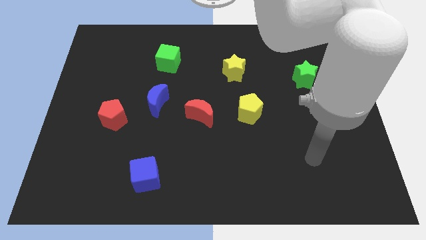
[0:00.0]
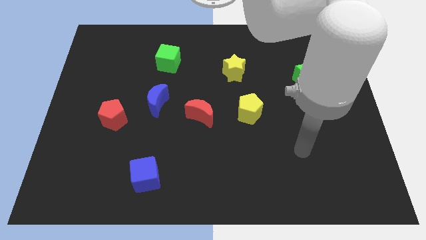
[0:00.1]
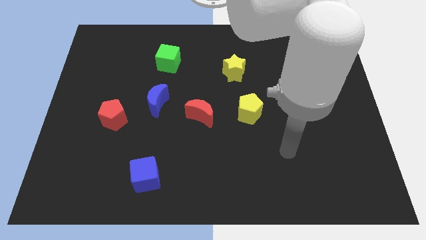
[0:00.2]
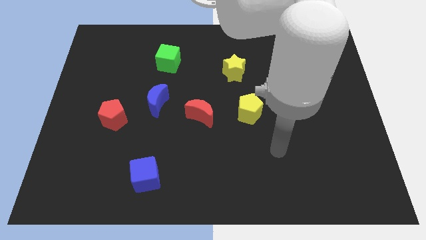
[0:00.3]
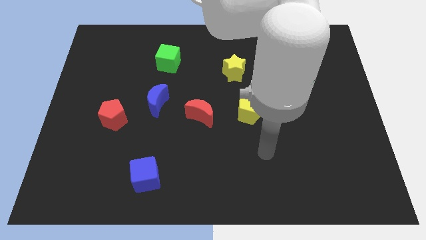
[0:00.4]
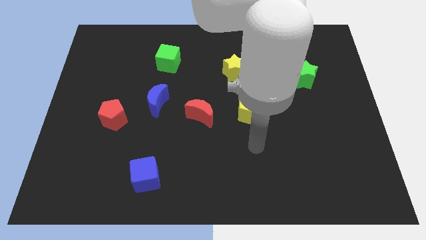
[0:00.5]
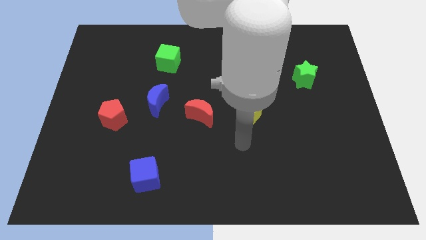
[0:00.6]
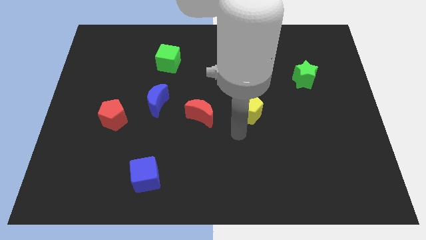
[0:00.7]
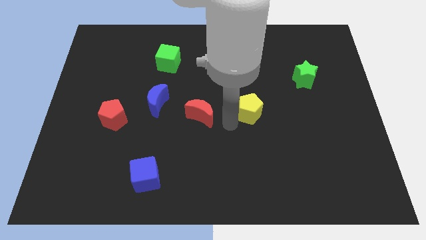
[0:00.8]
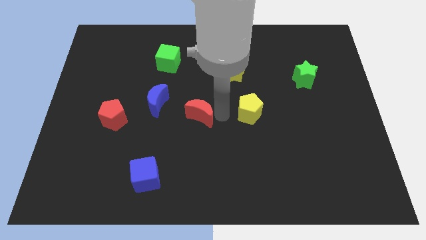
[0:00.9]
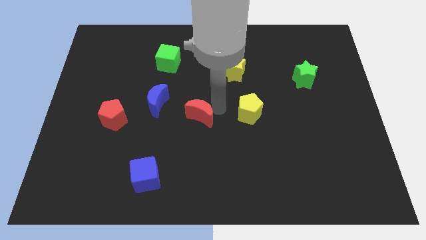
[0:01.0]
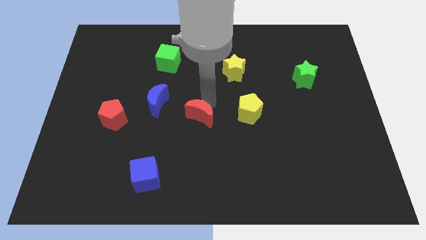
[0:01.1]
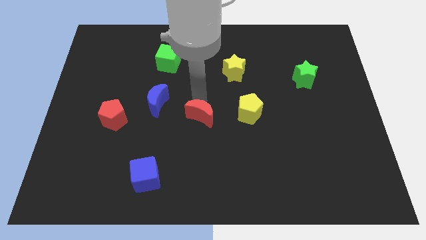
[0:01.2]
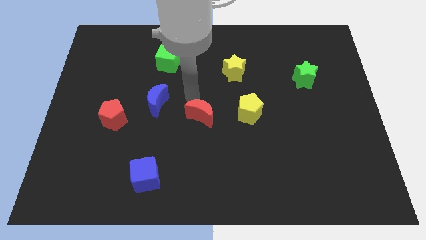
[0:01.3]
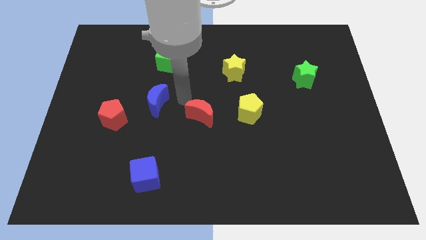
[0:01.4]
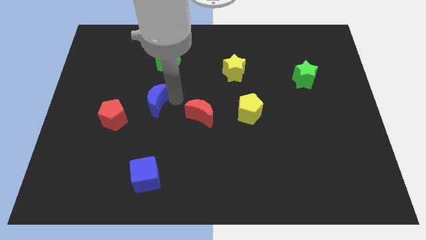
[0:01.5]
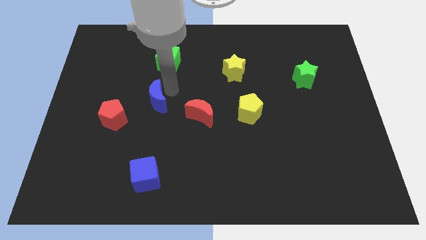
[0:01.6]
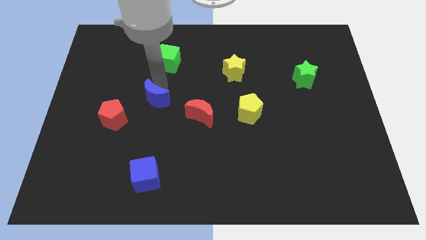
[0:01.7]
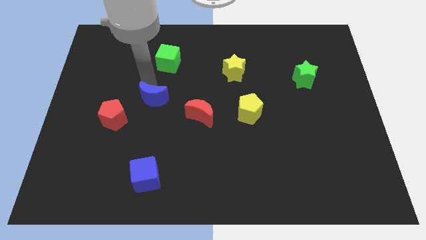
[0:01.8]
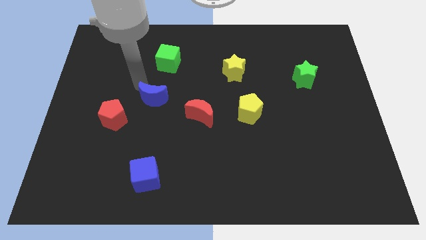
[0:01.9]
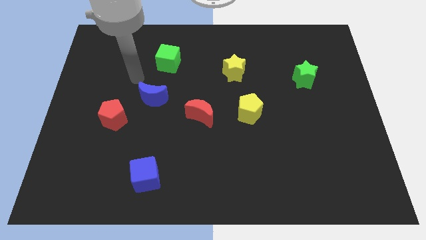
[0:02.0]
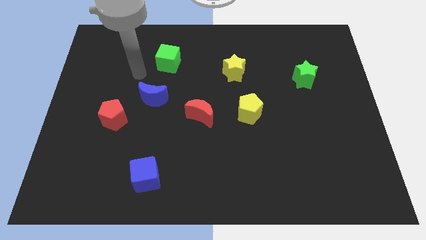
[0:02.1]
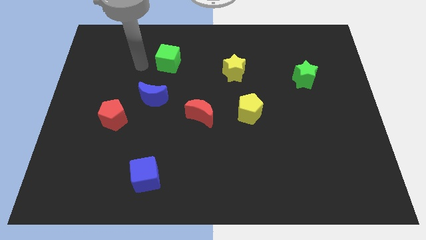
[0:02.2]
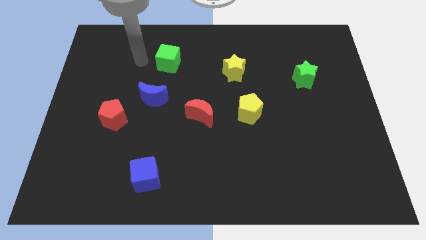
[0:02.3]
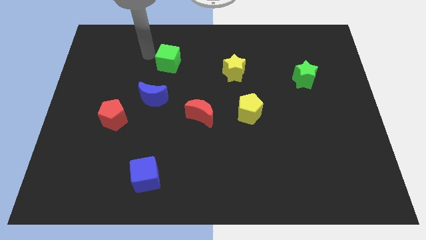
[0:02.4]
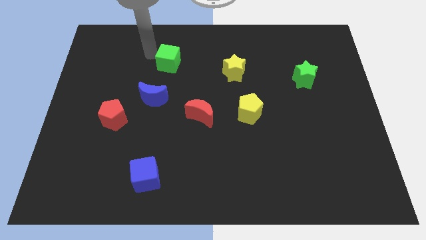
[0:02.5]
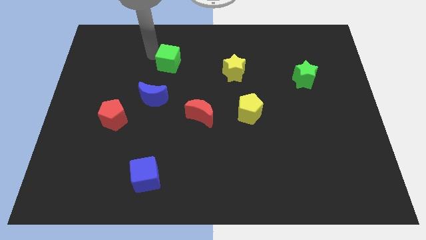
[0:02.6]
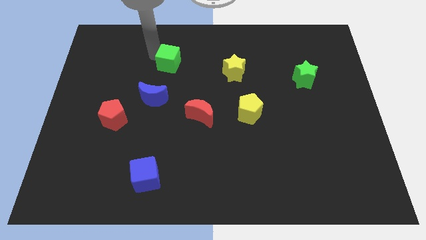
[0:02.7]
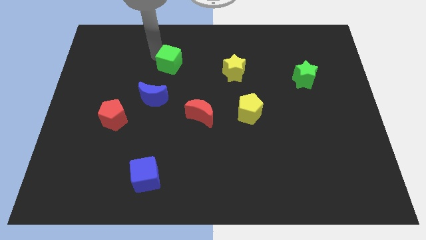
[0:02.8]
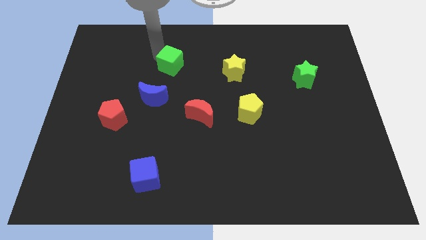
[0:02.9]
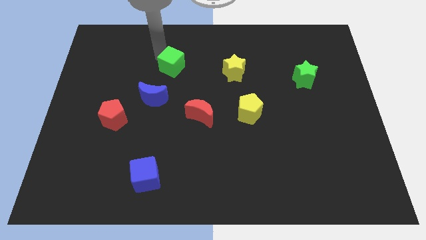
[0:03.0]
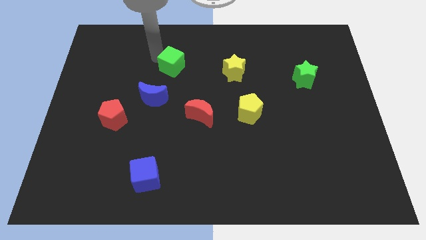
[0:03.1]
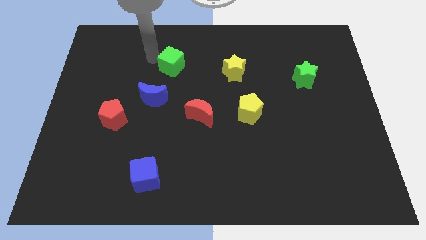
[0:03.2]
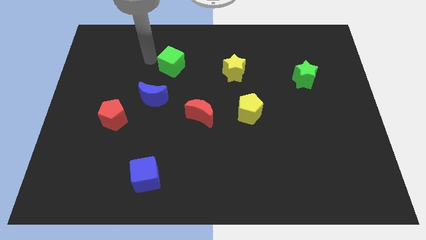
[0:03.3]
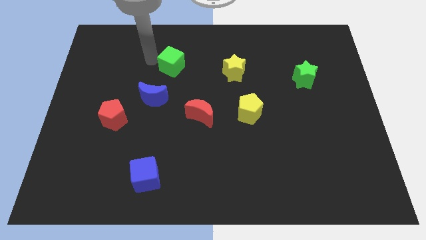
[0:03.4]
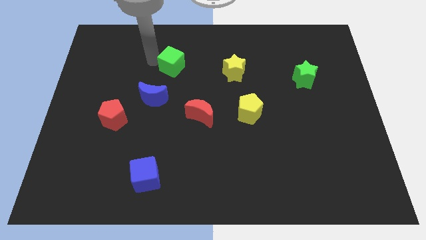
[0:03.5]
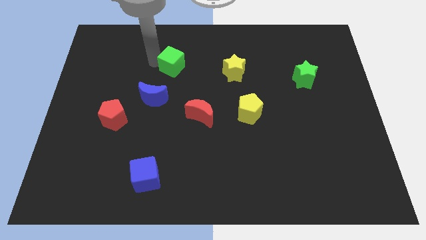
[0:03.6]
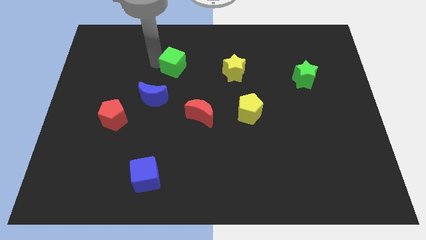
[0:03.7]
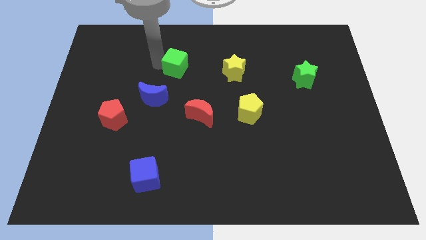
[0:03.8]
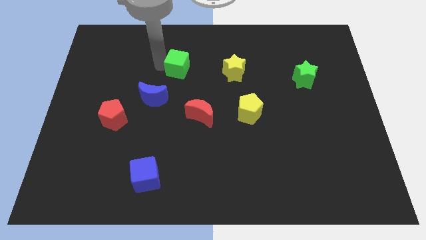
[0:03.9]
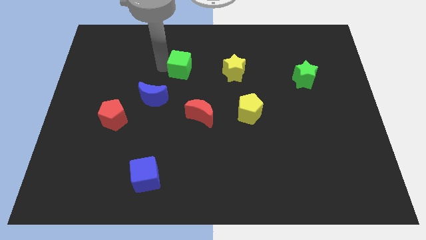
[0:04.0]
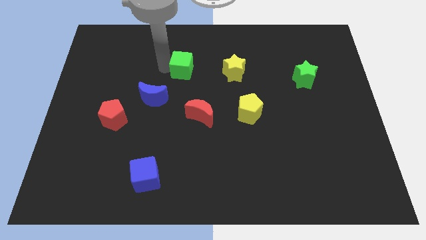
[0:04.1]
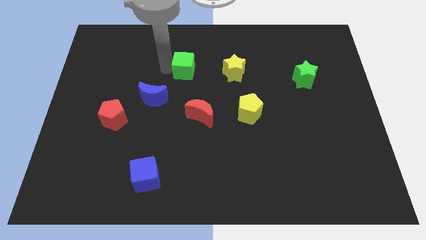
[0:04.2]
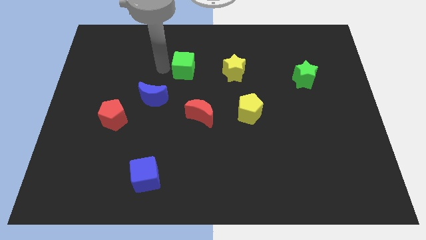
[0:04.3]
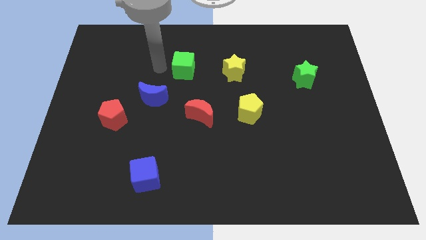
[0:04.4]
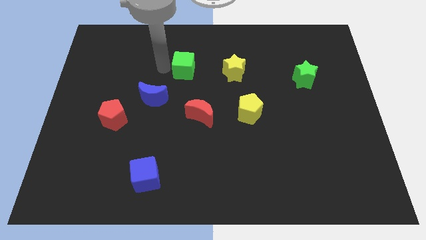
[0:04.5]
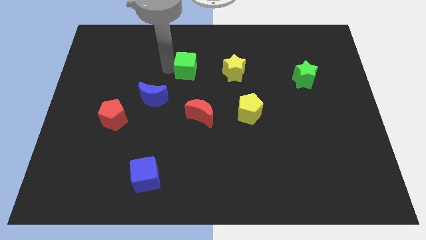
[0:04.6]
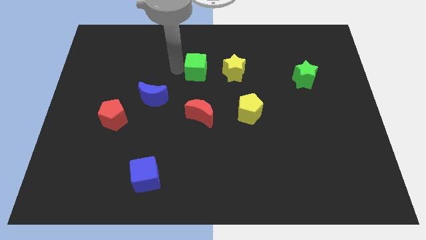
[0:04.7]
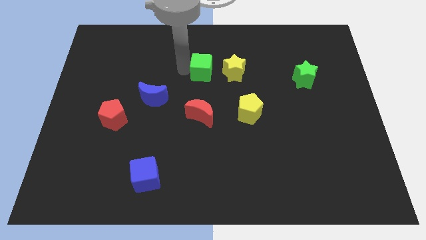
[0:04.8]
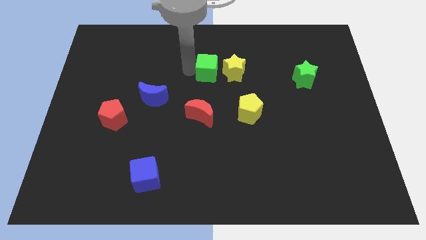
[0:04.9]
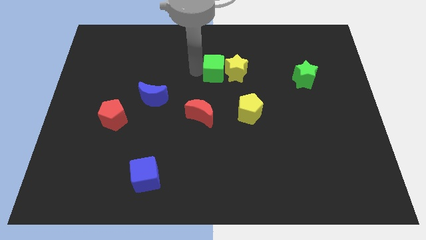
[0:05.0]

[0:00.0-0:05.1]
put the green cube towards the yellow star

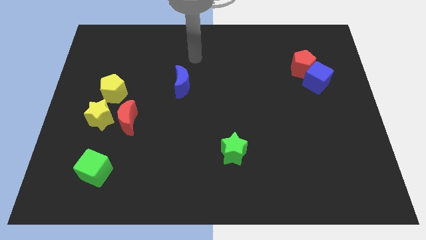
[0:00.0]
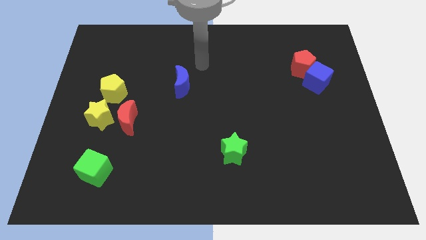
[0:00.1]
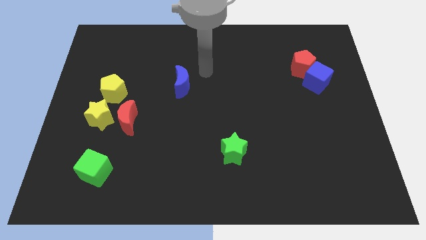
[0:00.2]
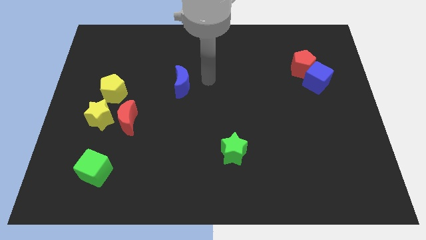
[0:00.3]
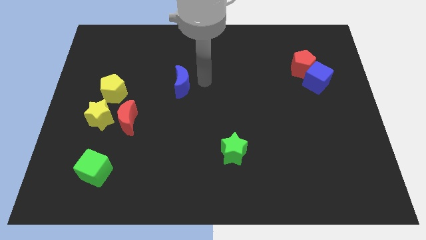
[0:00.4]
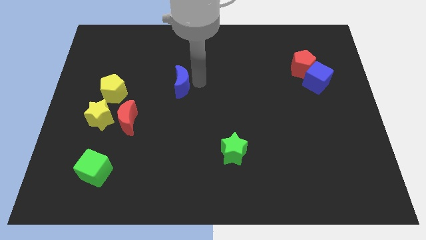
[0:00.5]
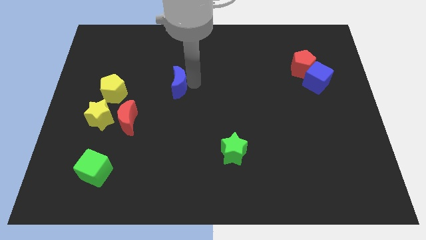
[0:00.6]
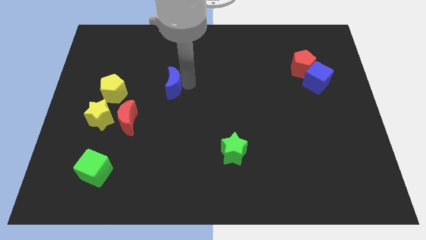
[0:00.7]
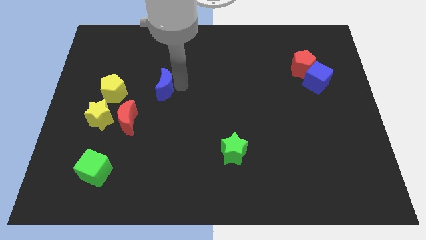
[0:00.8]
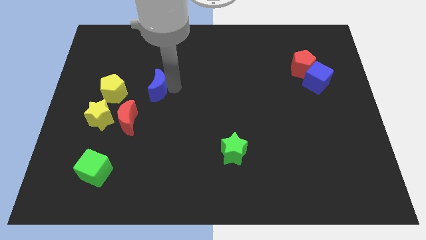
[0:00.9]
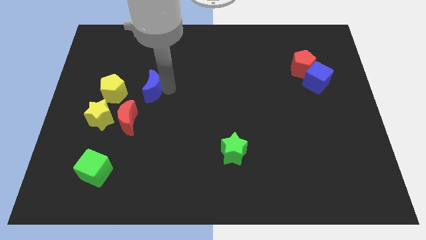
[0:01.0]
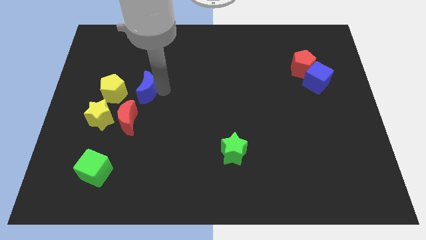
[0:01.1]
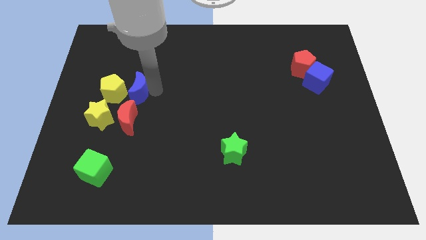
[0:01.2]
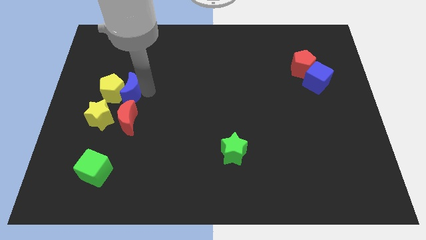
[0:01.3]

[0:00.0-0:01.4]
move the blue moon close to the yellow pentagon
